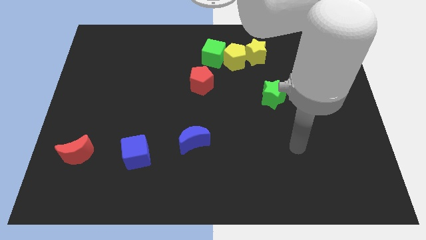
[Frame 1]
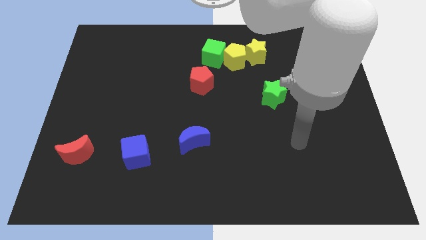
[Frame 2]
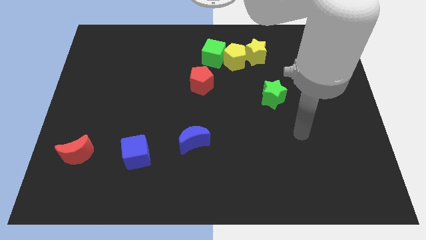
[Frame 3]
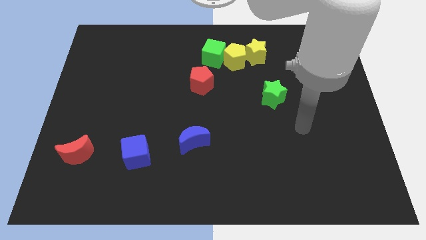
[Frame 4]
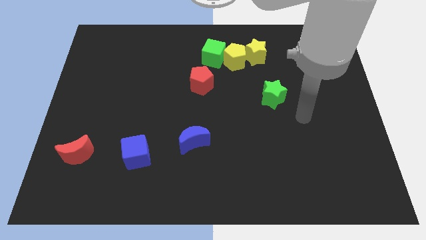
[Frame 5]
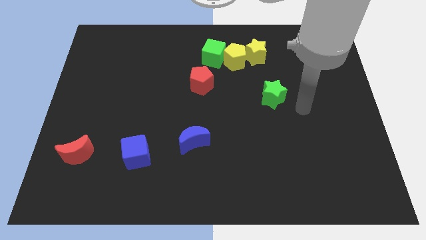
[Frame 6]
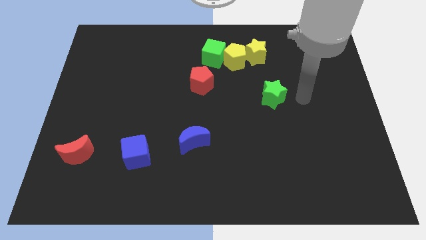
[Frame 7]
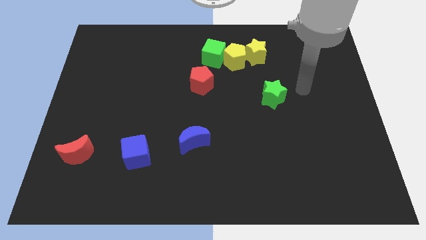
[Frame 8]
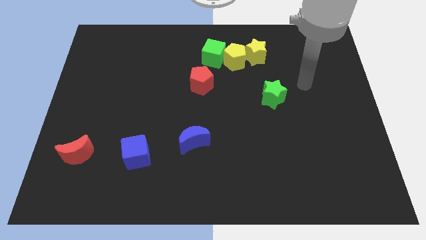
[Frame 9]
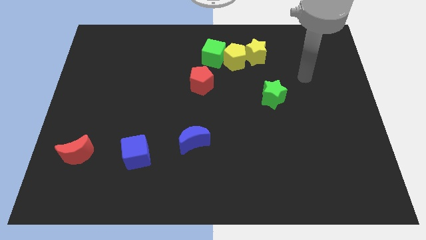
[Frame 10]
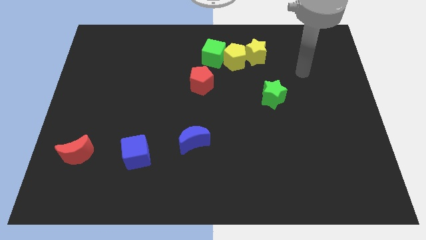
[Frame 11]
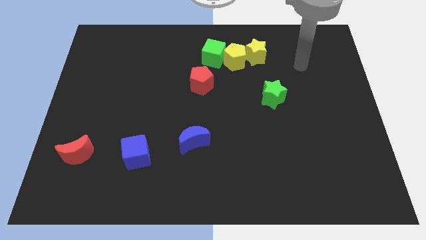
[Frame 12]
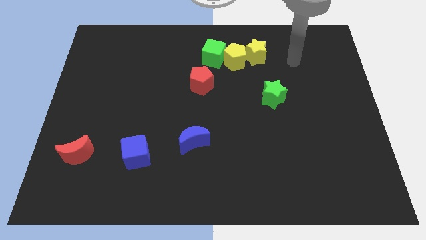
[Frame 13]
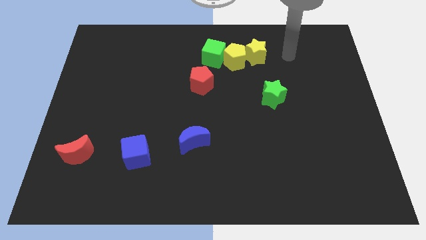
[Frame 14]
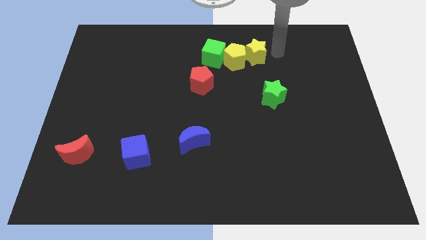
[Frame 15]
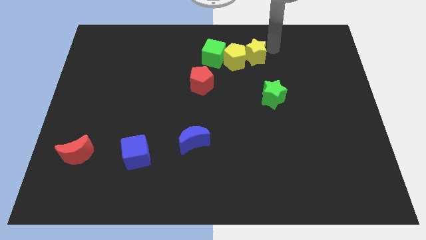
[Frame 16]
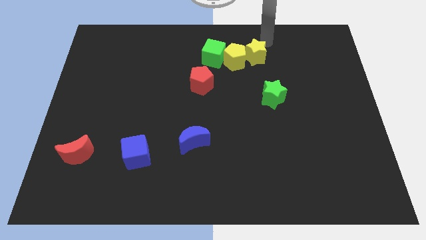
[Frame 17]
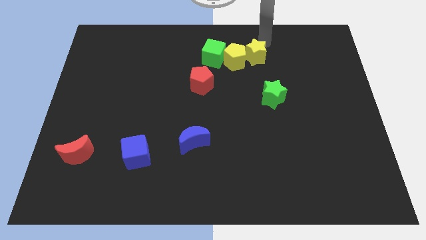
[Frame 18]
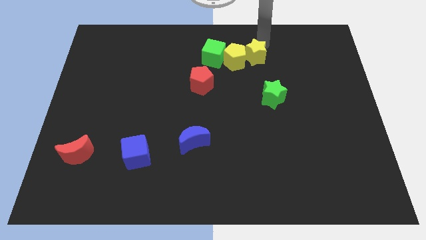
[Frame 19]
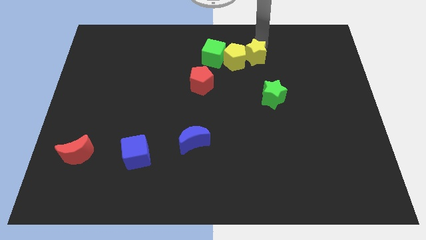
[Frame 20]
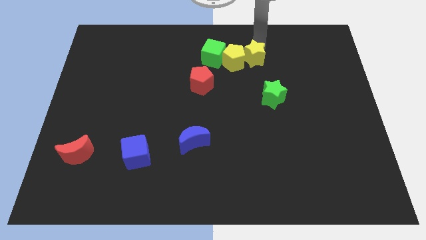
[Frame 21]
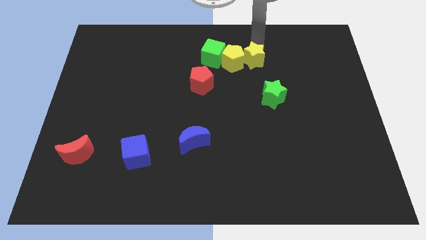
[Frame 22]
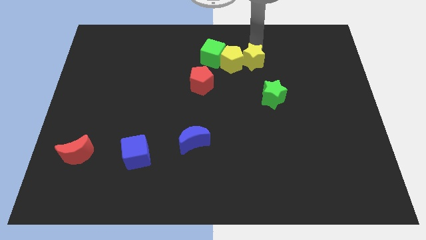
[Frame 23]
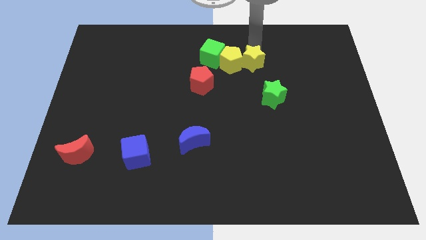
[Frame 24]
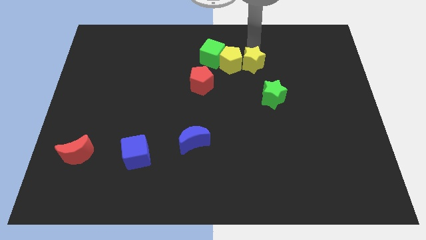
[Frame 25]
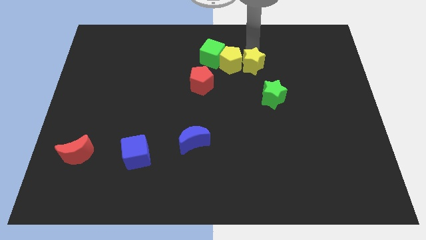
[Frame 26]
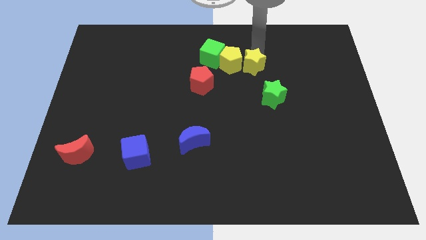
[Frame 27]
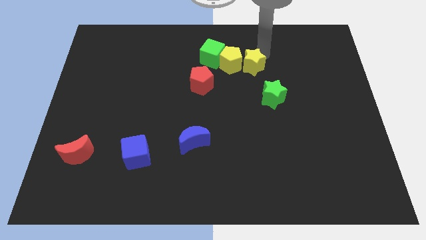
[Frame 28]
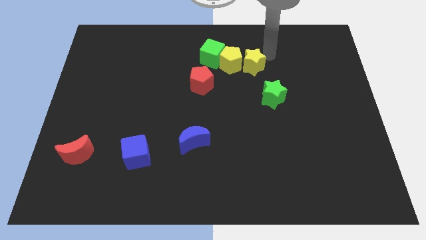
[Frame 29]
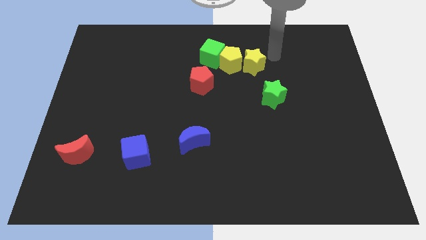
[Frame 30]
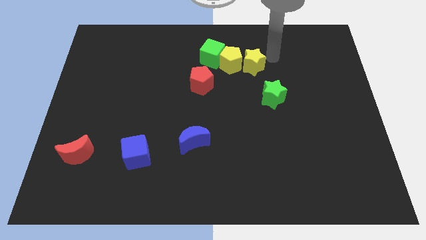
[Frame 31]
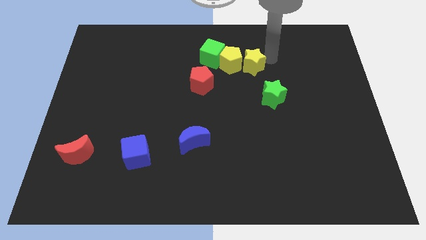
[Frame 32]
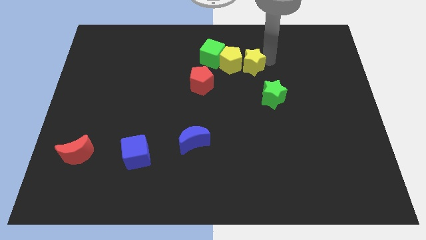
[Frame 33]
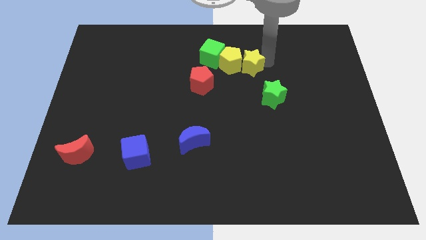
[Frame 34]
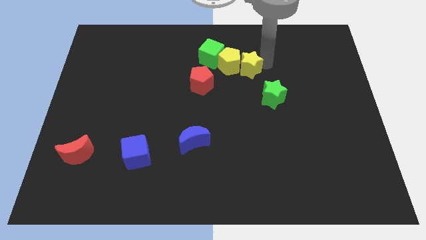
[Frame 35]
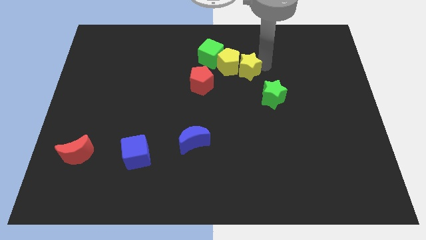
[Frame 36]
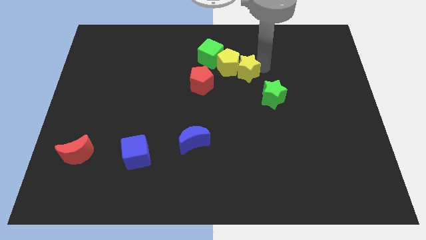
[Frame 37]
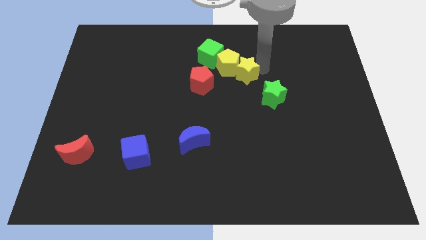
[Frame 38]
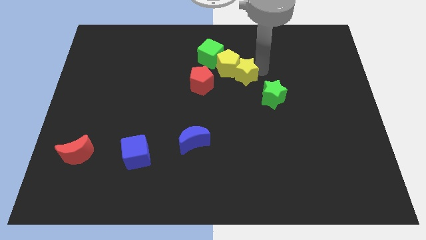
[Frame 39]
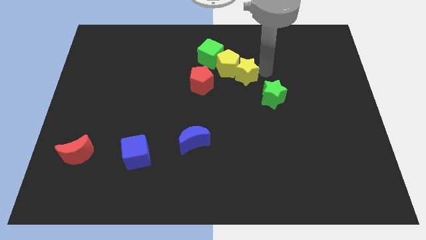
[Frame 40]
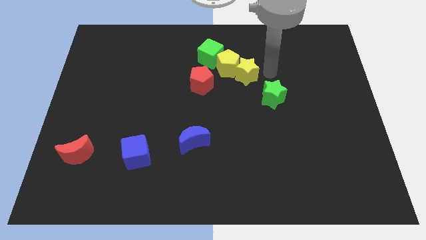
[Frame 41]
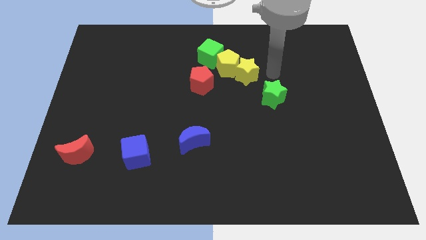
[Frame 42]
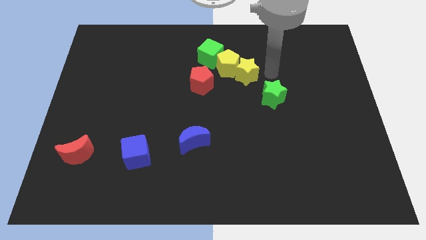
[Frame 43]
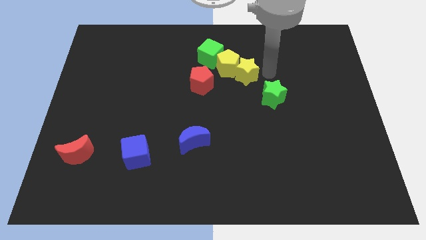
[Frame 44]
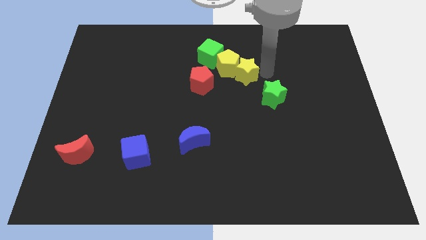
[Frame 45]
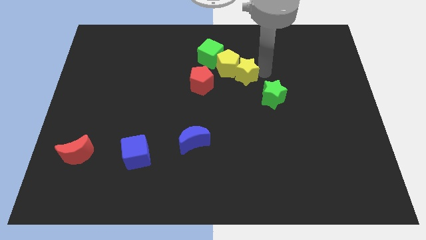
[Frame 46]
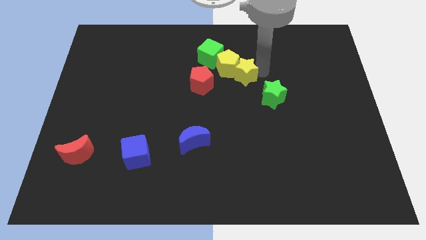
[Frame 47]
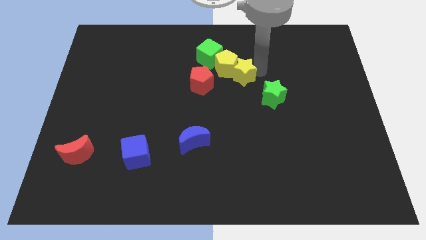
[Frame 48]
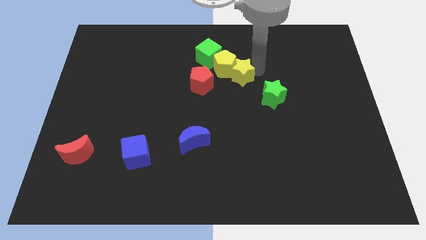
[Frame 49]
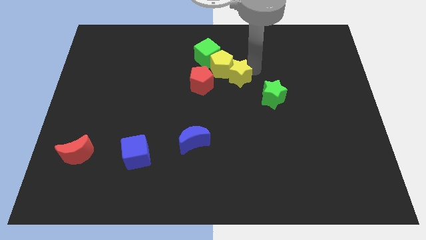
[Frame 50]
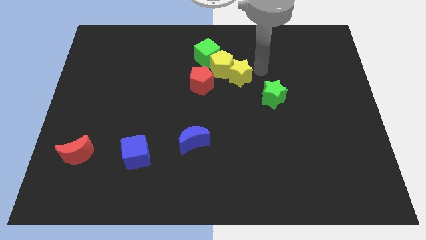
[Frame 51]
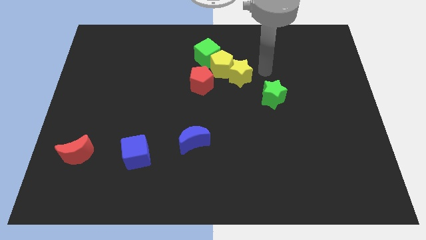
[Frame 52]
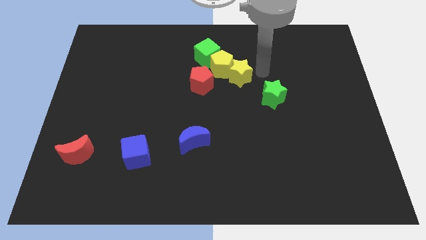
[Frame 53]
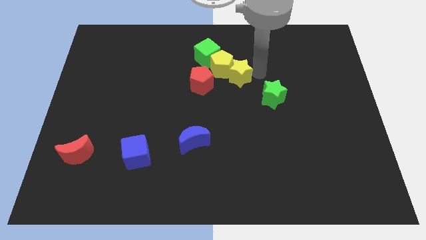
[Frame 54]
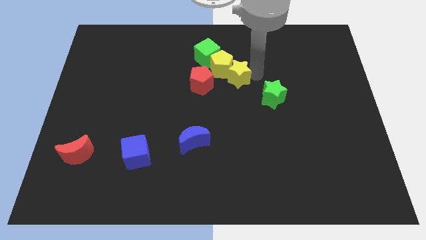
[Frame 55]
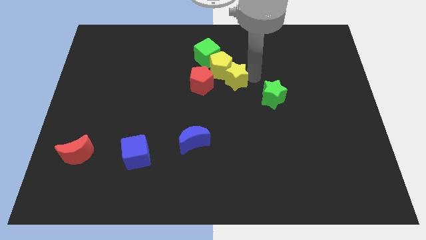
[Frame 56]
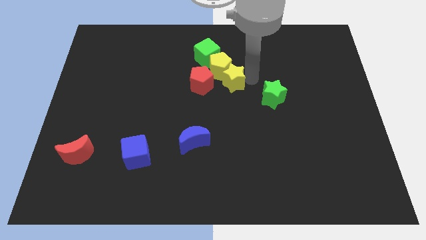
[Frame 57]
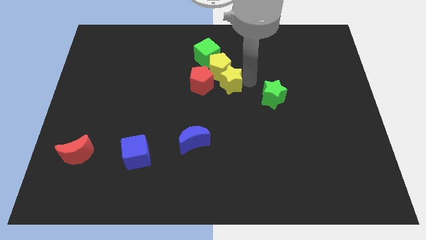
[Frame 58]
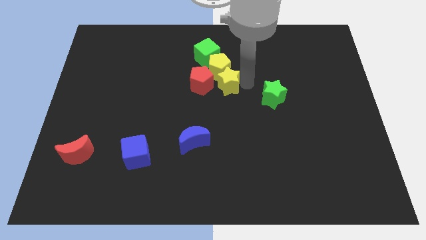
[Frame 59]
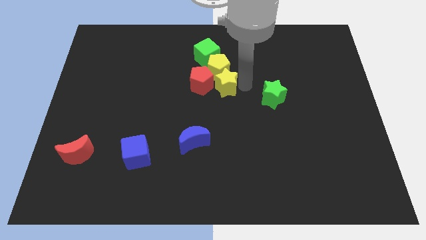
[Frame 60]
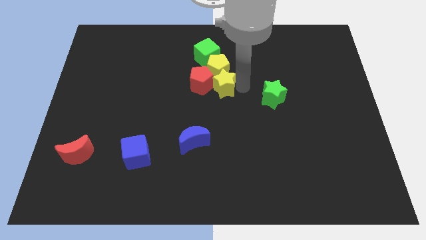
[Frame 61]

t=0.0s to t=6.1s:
put the yellow star next to the red pentagon

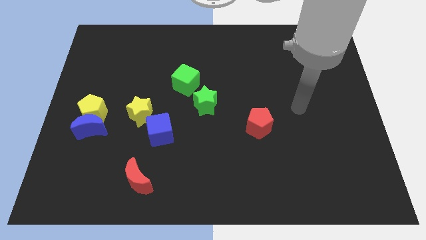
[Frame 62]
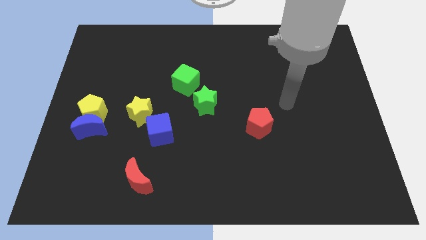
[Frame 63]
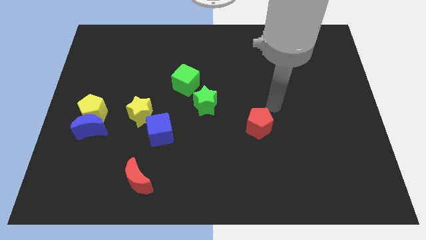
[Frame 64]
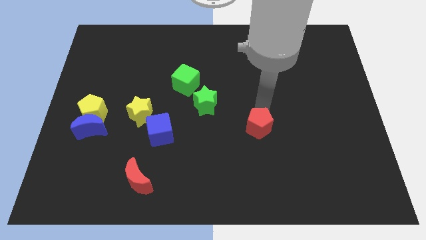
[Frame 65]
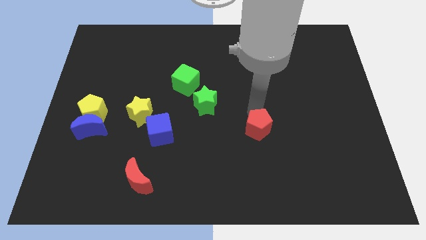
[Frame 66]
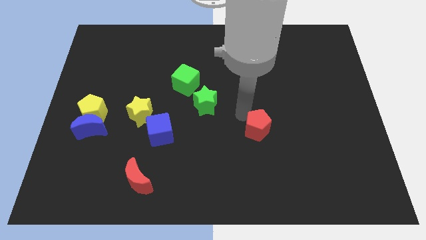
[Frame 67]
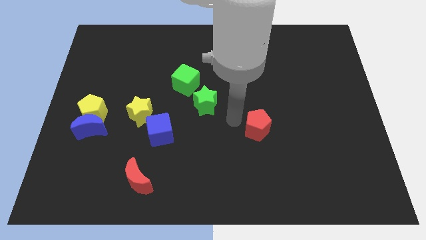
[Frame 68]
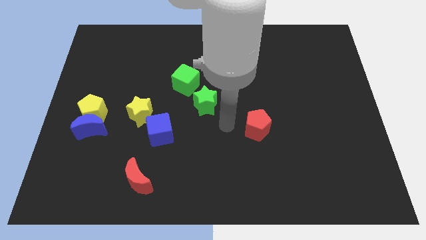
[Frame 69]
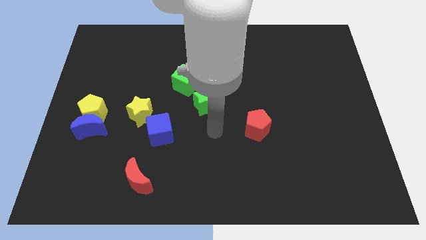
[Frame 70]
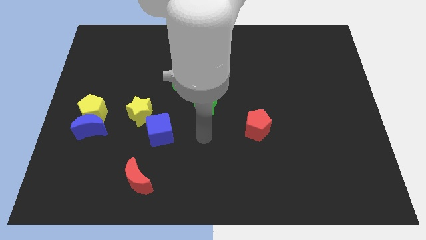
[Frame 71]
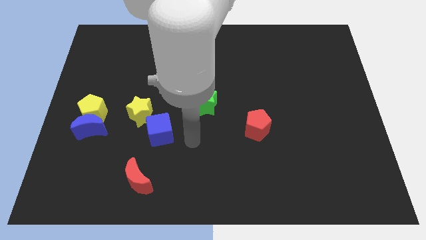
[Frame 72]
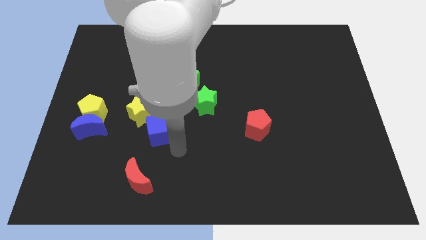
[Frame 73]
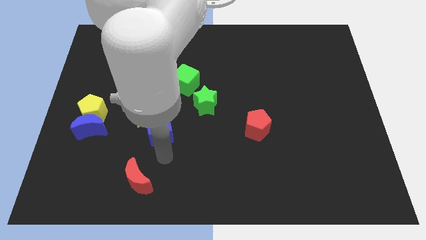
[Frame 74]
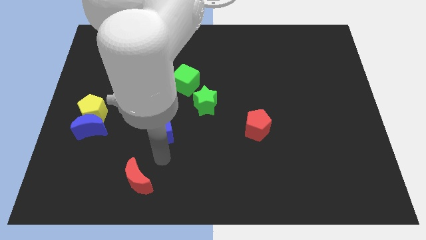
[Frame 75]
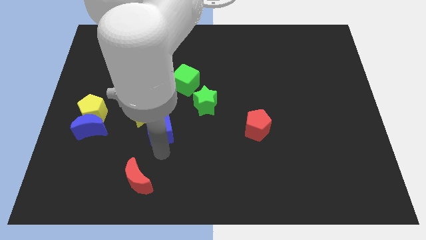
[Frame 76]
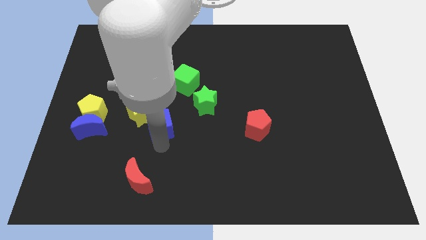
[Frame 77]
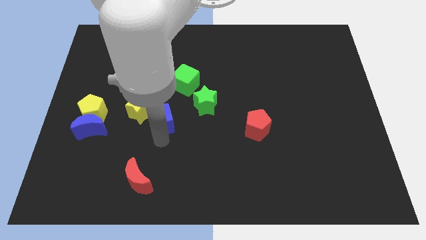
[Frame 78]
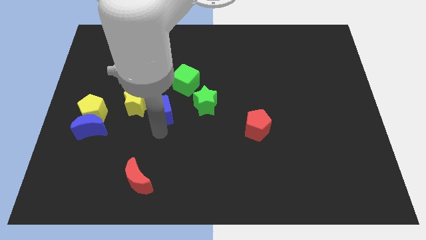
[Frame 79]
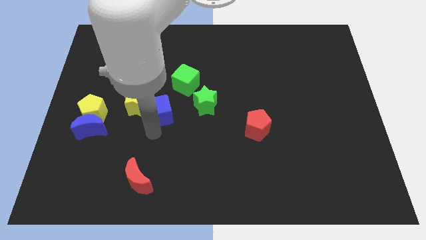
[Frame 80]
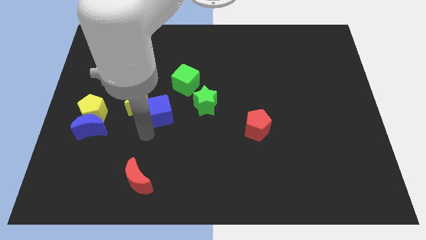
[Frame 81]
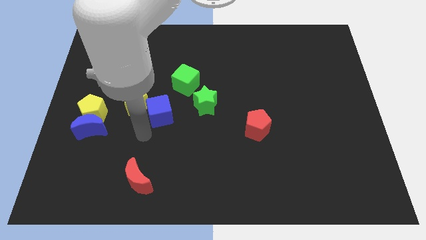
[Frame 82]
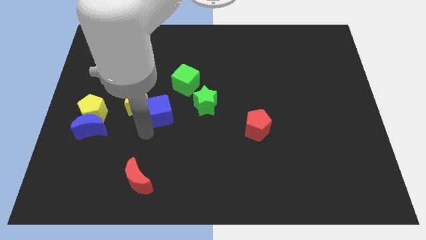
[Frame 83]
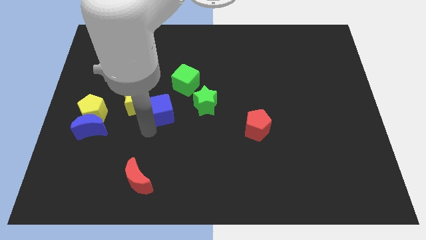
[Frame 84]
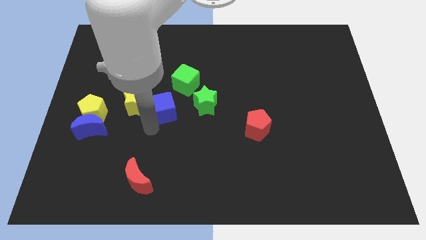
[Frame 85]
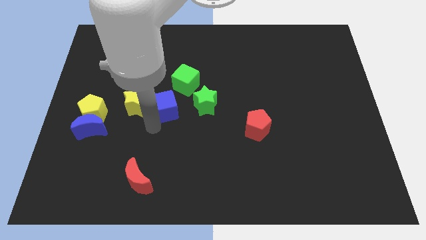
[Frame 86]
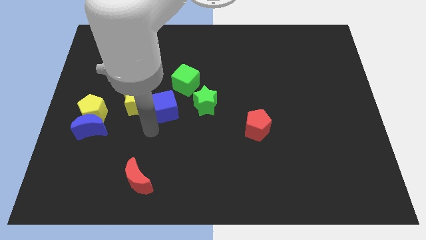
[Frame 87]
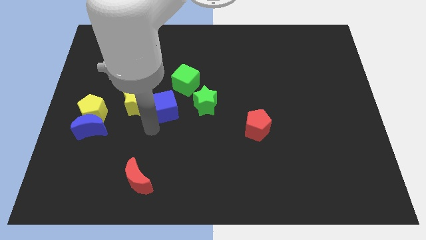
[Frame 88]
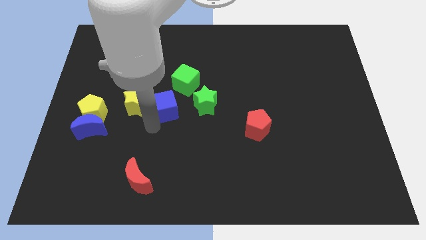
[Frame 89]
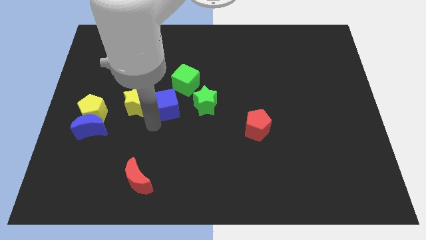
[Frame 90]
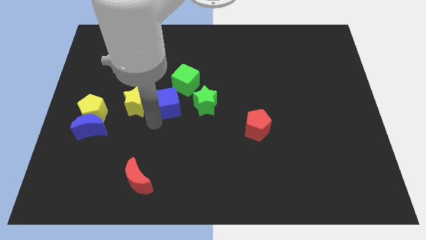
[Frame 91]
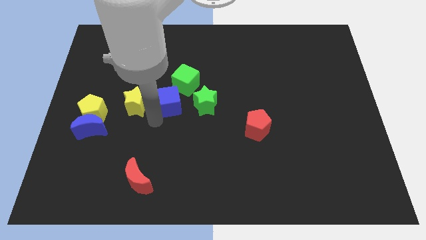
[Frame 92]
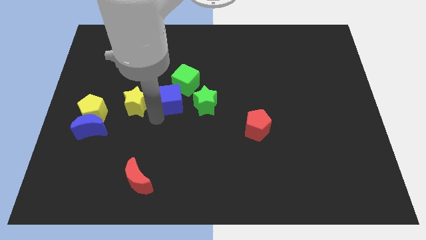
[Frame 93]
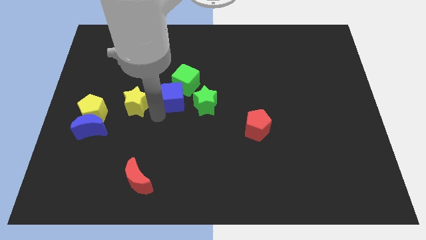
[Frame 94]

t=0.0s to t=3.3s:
move the blue cube towards the green cube
